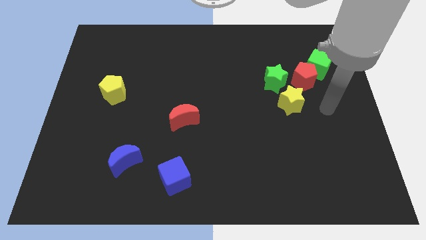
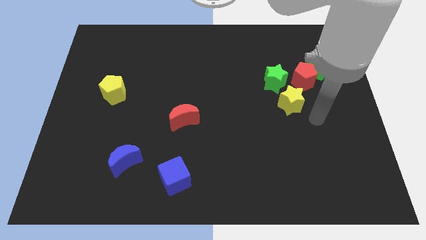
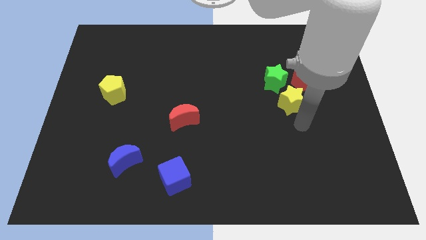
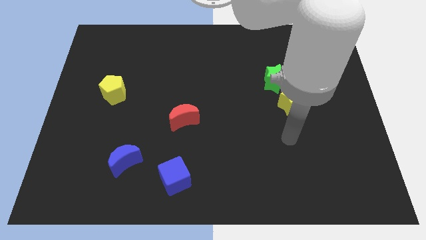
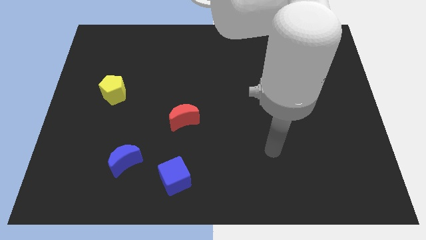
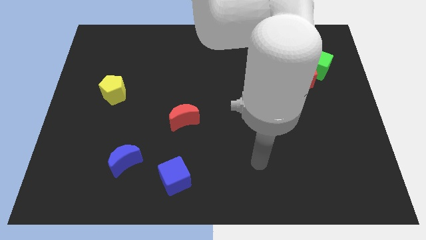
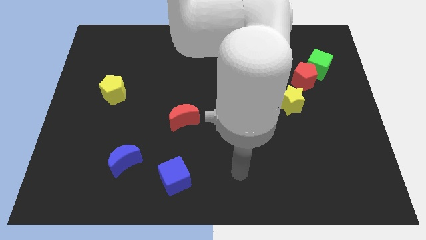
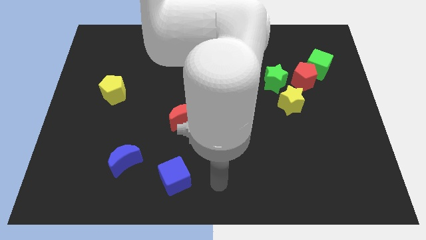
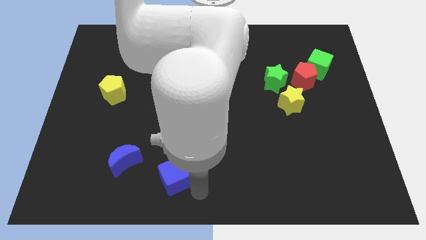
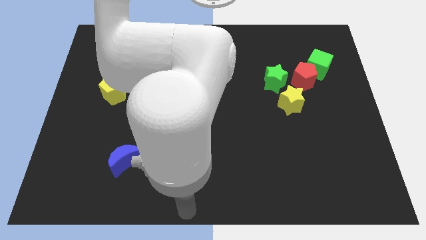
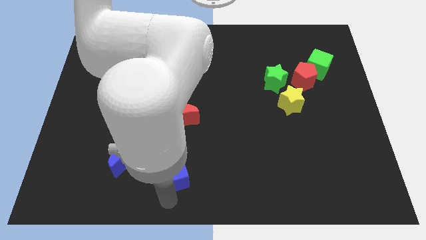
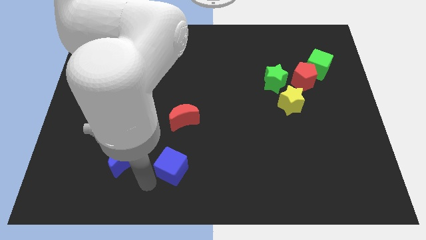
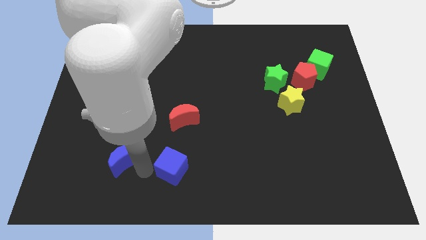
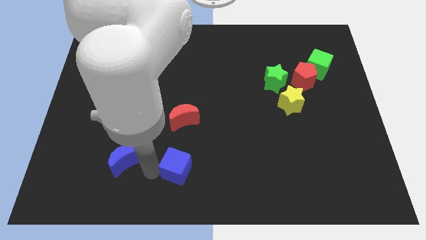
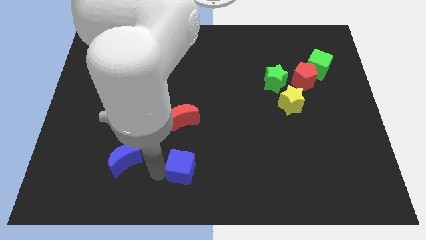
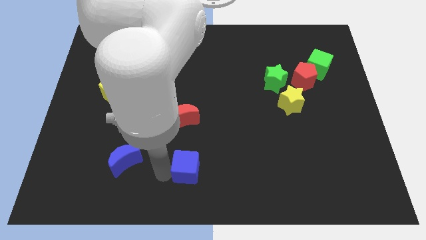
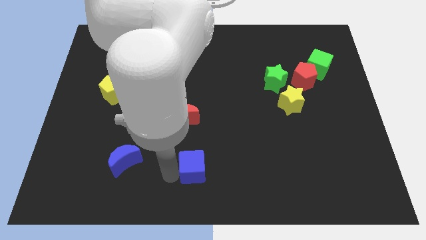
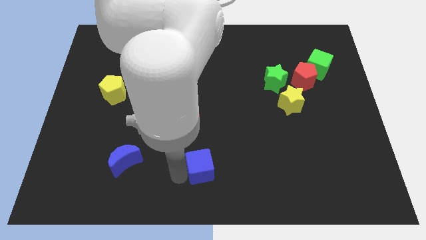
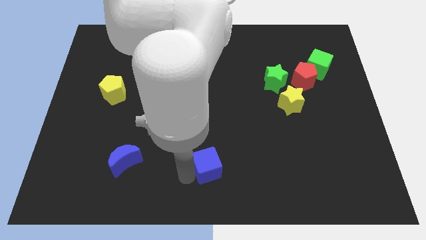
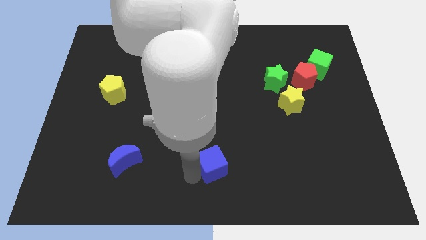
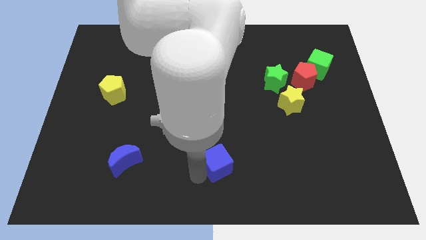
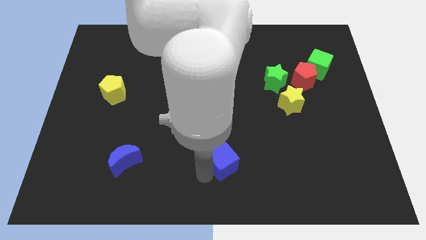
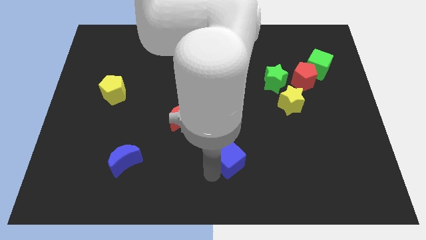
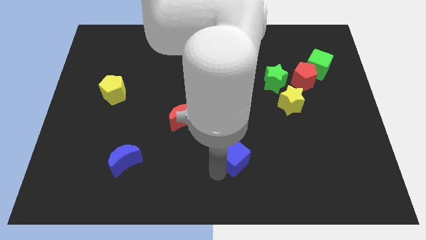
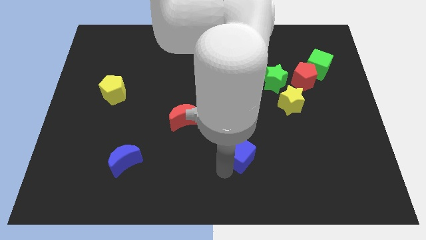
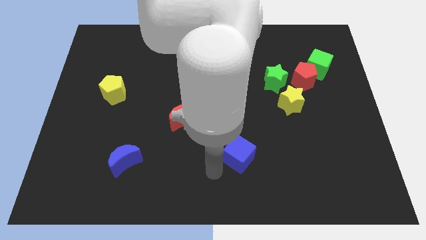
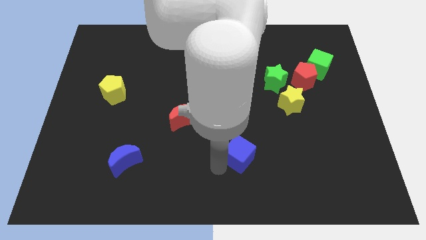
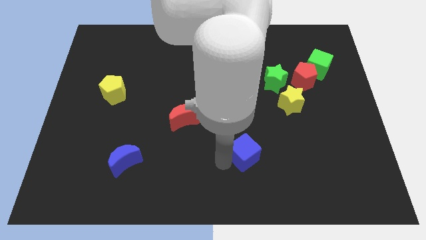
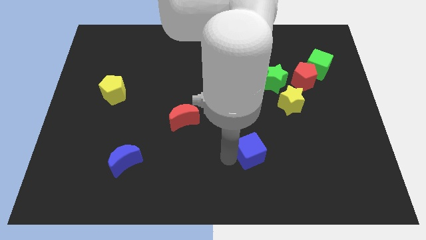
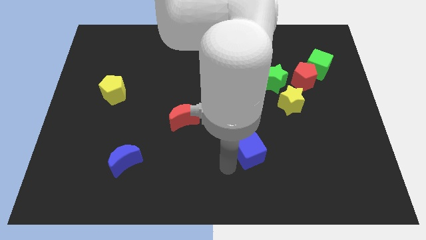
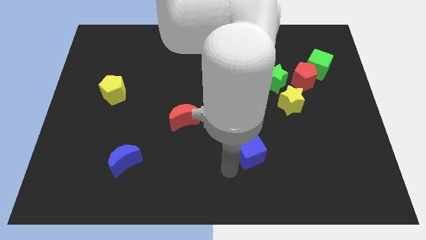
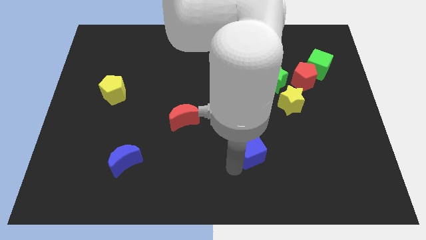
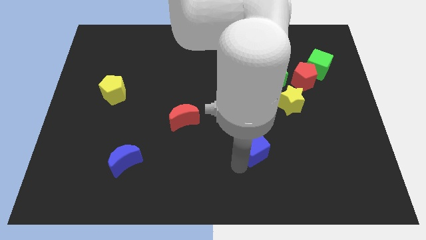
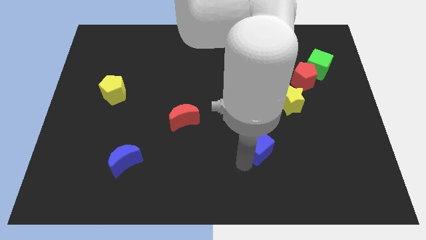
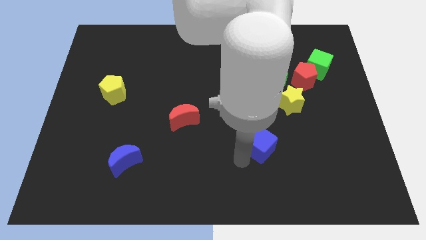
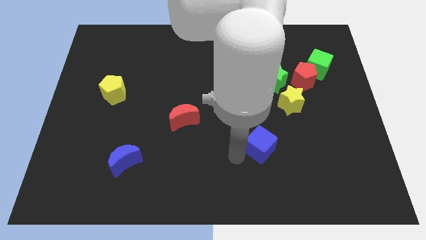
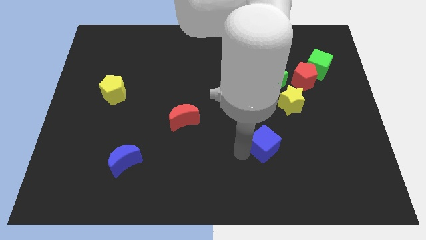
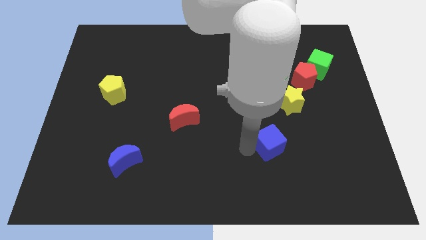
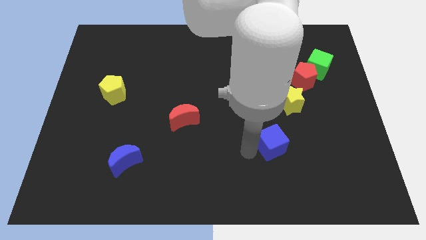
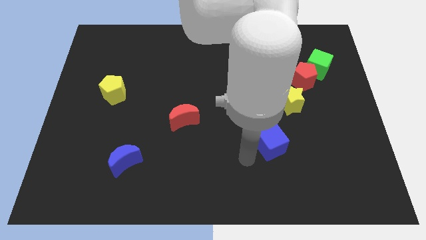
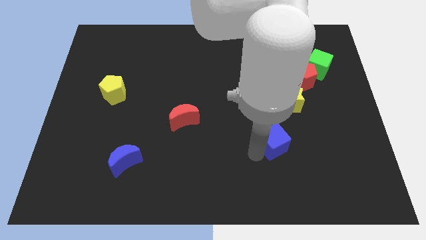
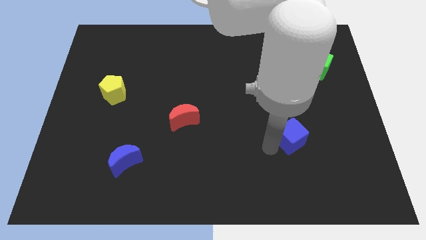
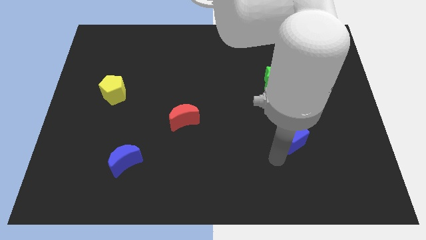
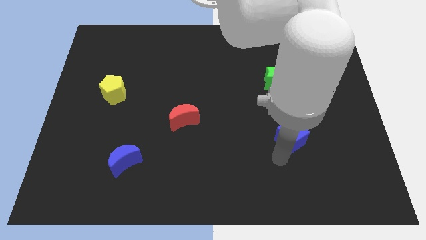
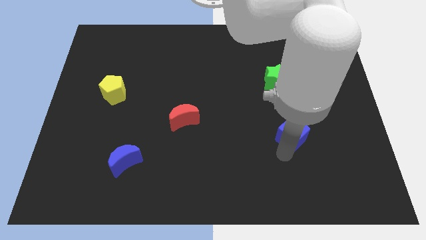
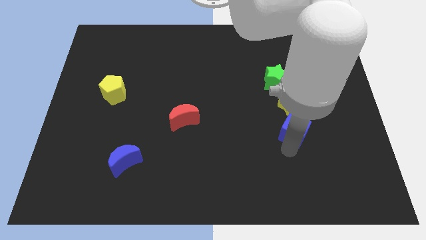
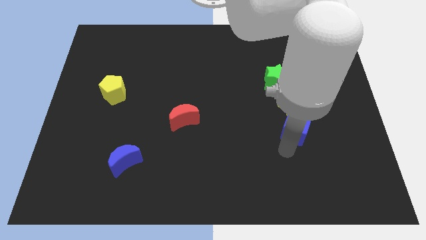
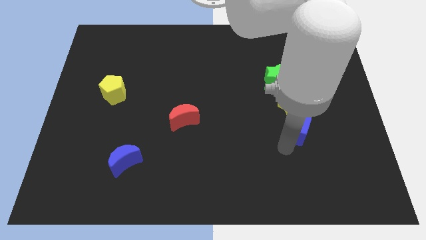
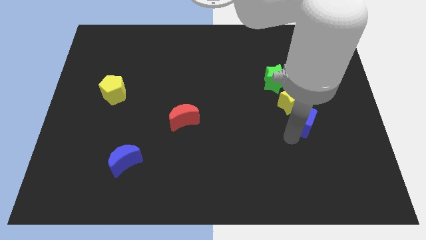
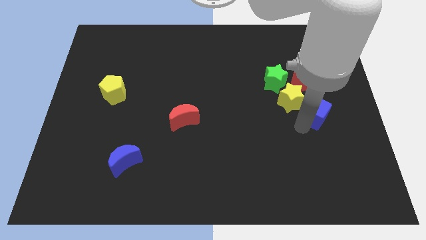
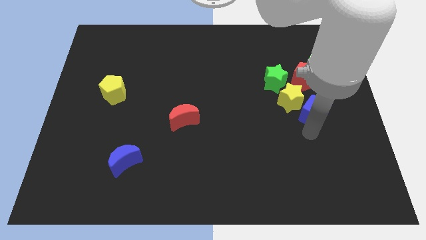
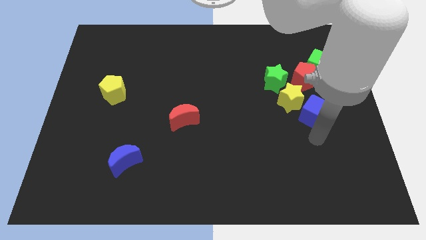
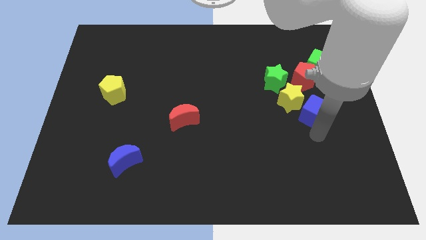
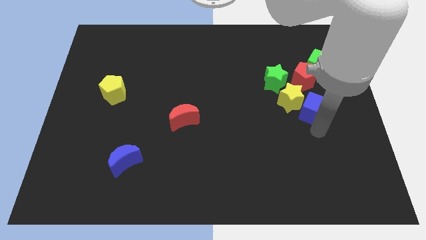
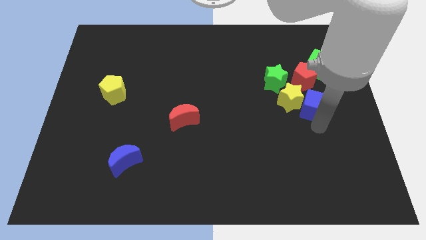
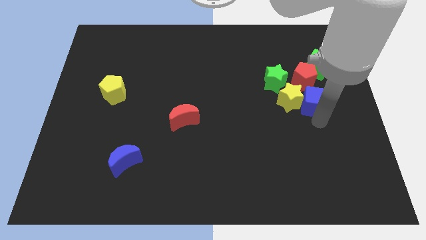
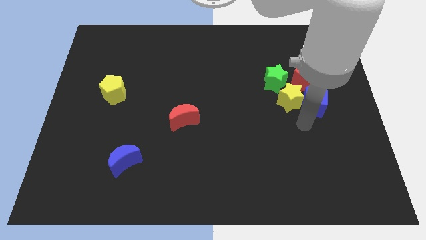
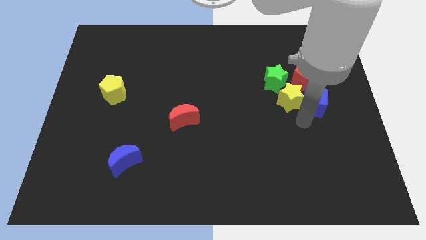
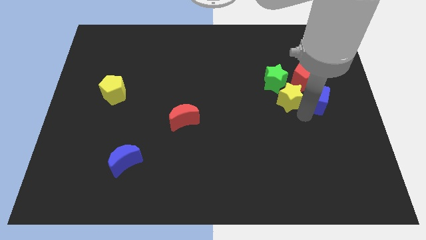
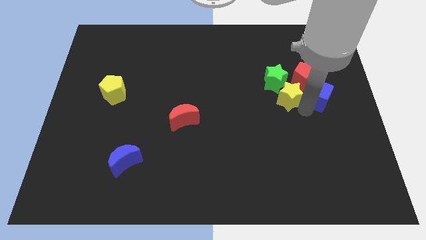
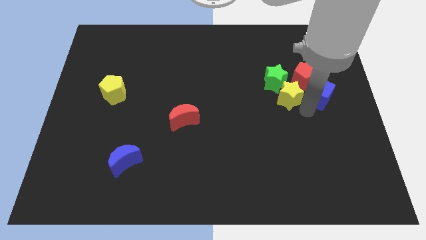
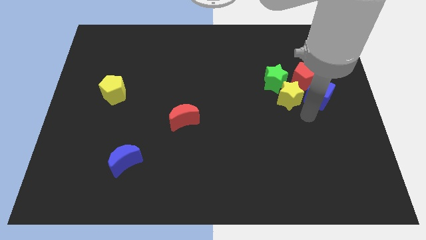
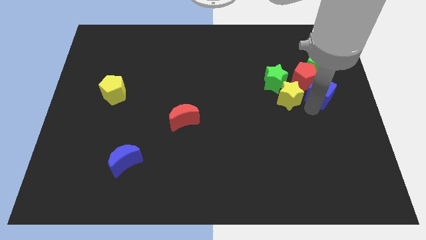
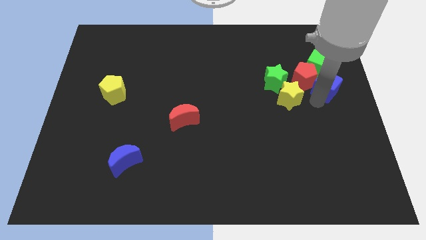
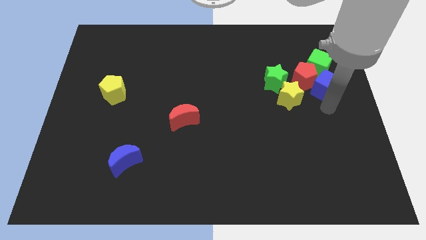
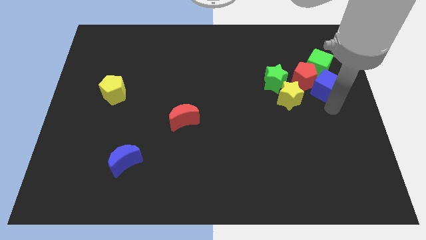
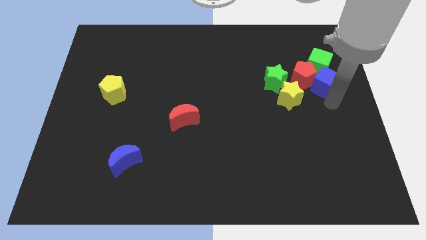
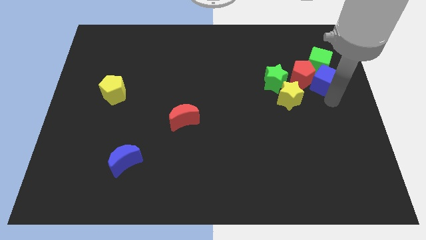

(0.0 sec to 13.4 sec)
put the blue cube towards the green cube

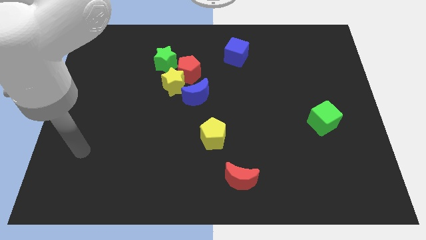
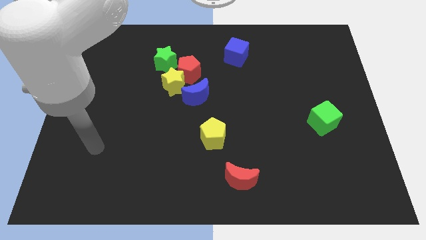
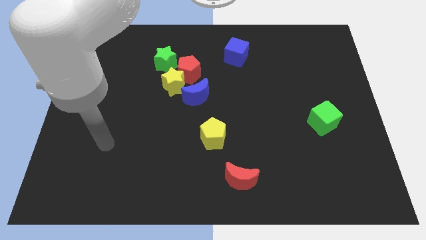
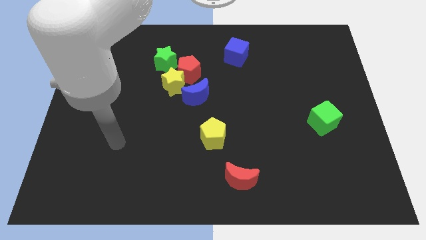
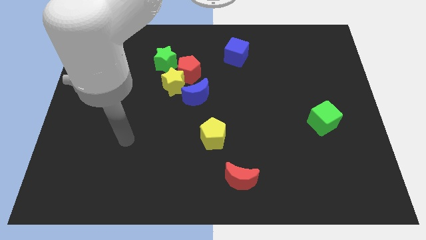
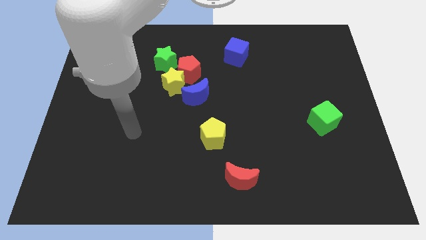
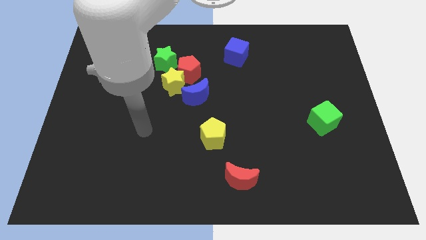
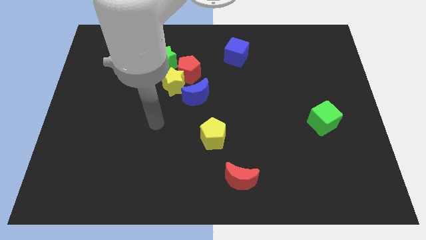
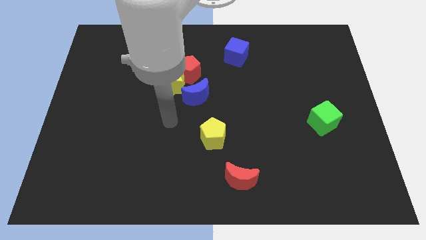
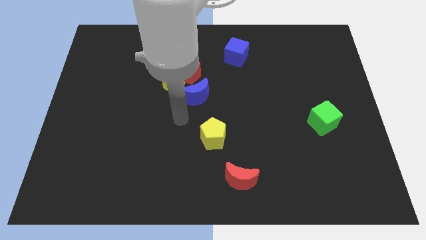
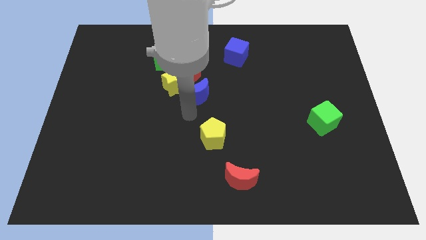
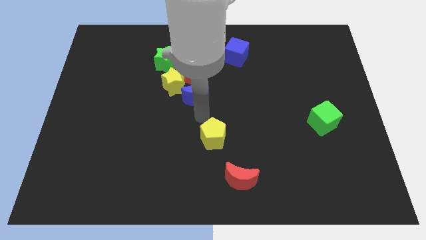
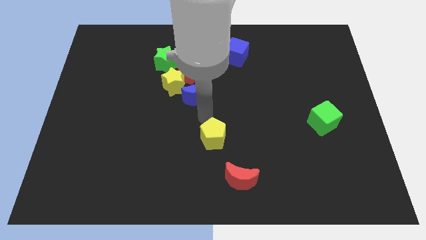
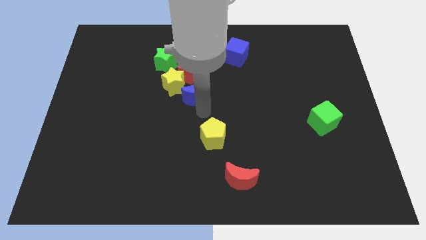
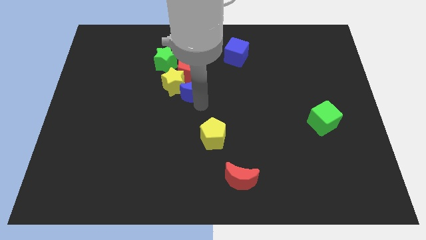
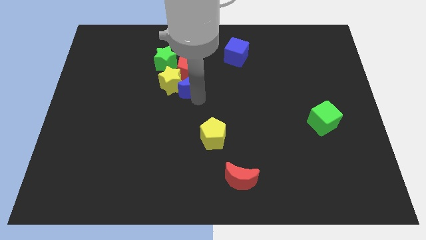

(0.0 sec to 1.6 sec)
slide the blue moon to the red pentagon
